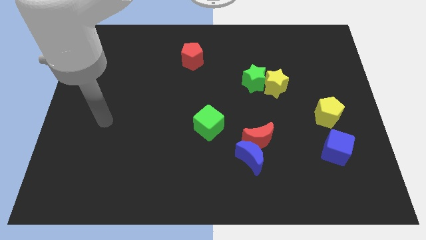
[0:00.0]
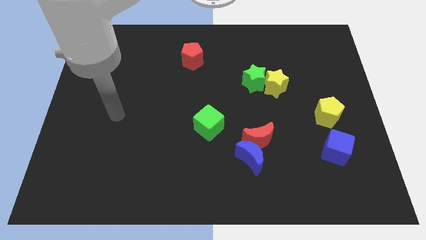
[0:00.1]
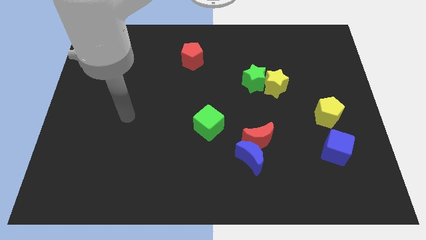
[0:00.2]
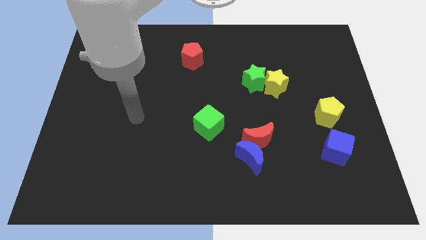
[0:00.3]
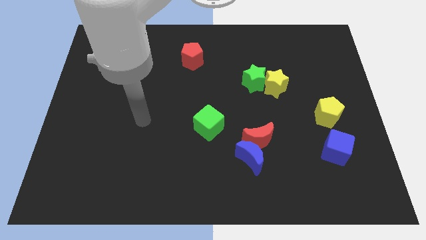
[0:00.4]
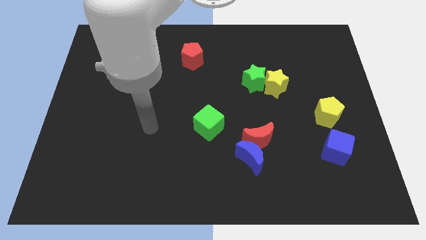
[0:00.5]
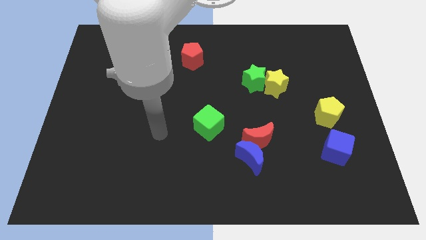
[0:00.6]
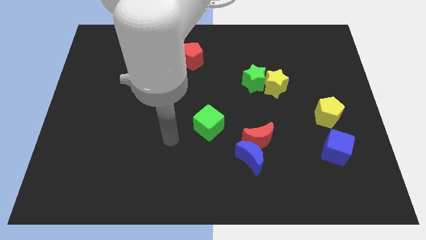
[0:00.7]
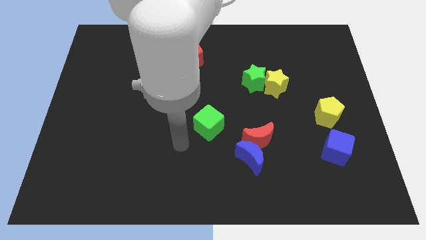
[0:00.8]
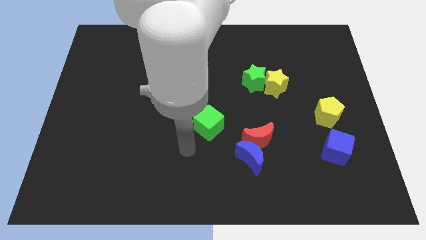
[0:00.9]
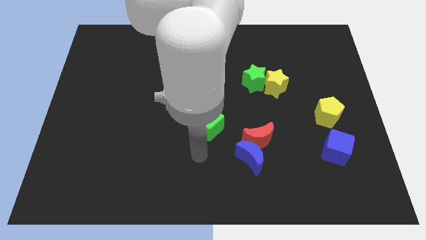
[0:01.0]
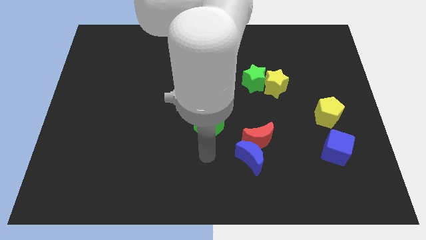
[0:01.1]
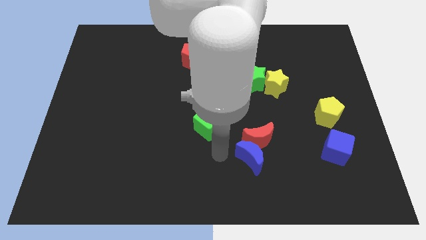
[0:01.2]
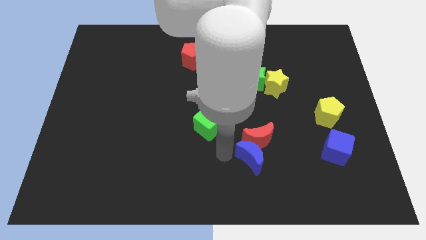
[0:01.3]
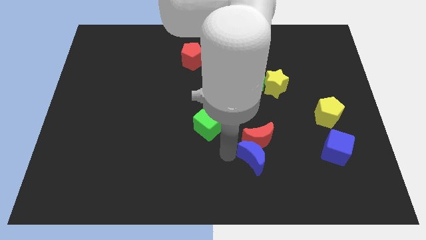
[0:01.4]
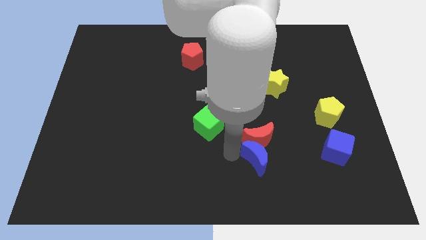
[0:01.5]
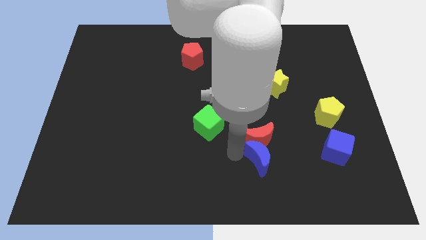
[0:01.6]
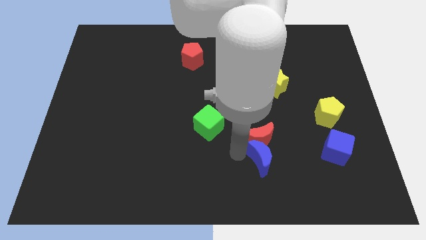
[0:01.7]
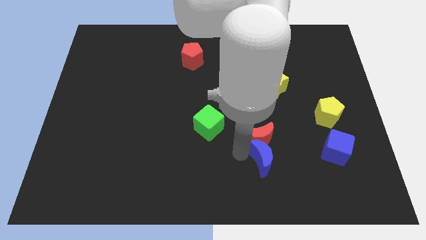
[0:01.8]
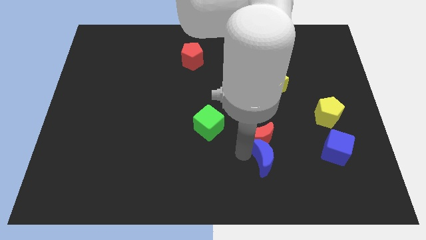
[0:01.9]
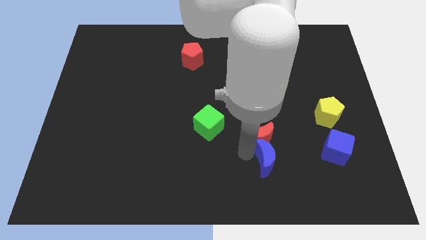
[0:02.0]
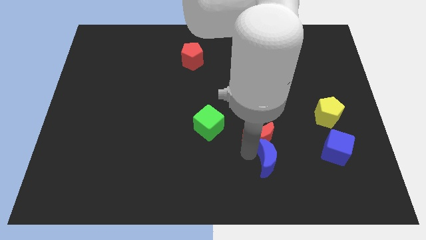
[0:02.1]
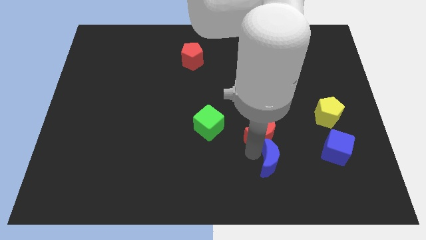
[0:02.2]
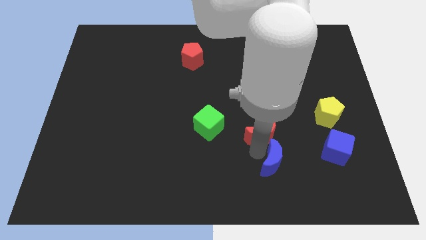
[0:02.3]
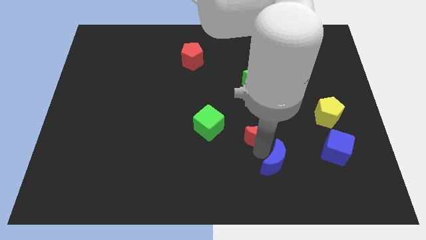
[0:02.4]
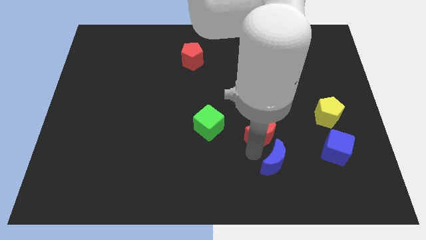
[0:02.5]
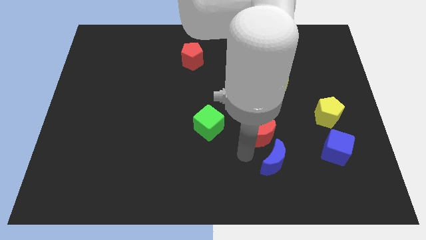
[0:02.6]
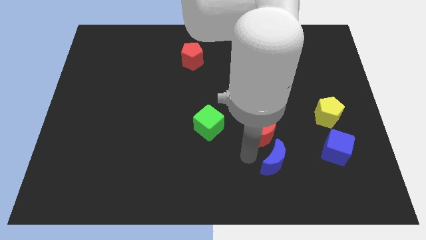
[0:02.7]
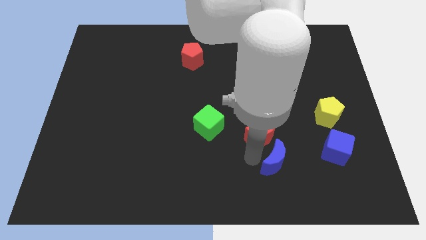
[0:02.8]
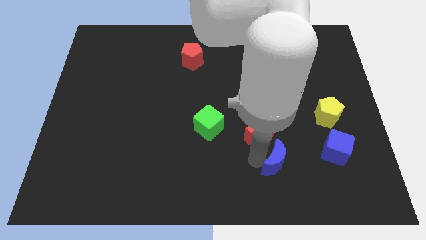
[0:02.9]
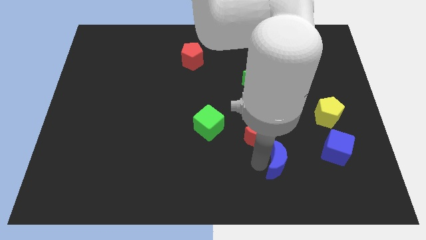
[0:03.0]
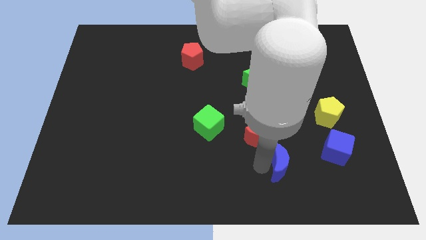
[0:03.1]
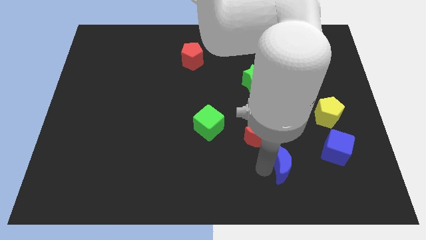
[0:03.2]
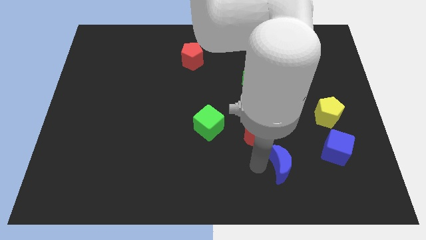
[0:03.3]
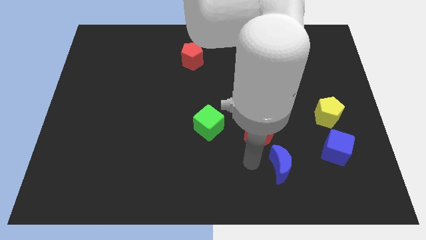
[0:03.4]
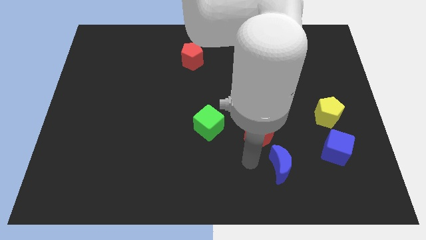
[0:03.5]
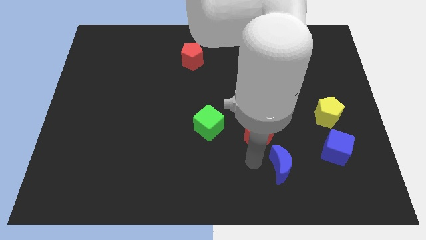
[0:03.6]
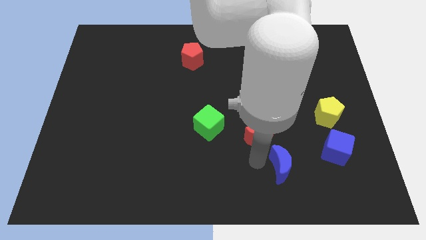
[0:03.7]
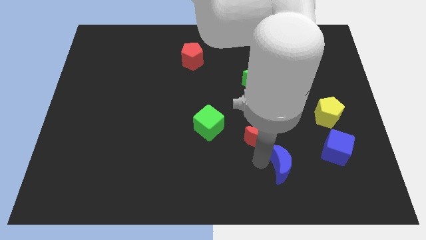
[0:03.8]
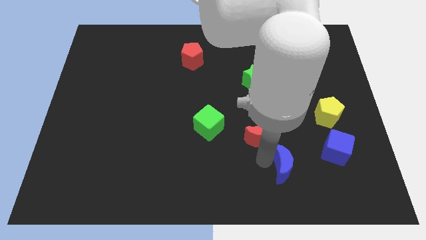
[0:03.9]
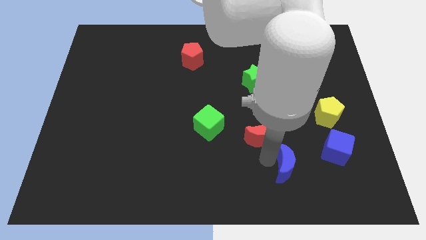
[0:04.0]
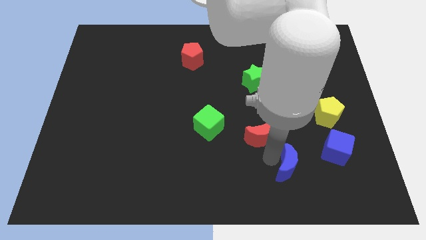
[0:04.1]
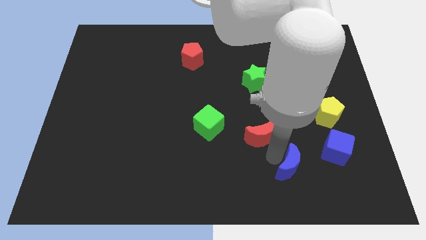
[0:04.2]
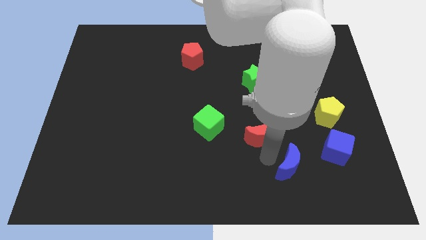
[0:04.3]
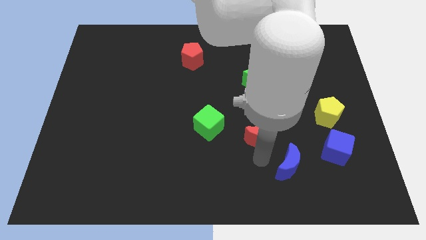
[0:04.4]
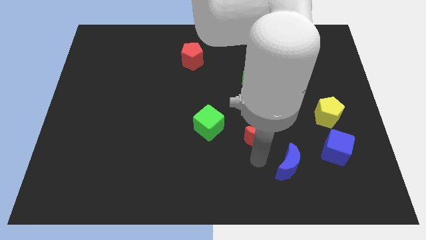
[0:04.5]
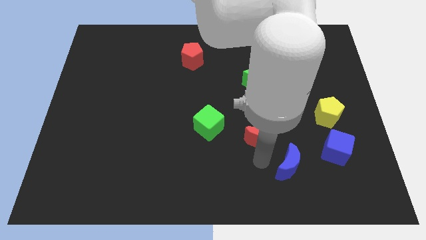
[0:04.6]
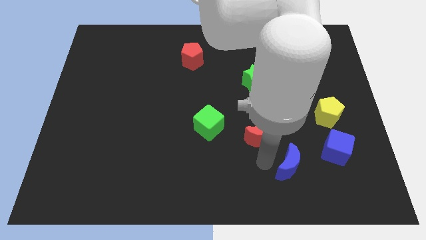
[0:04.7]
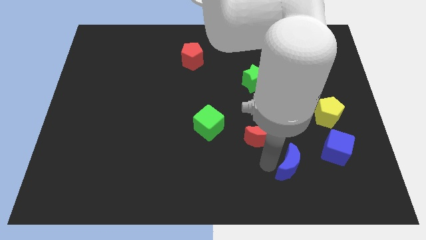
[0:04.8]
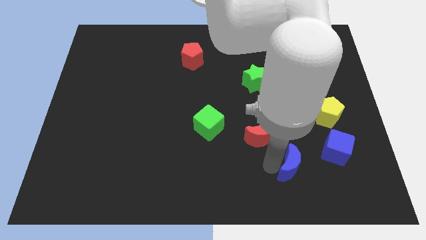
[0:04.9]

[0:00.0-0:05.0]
put the blue moon to the bottom left side of the blue cube
